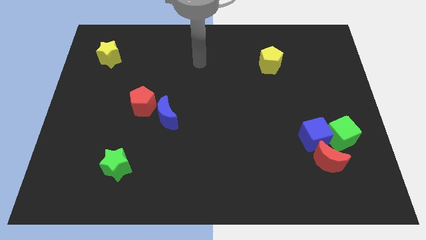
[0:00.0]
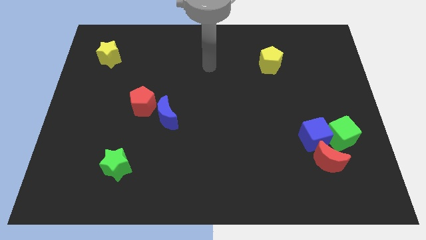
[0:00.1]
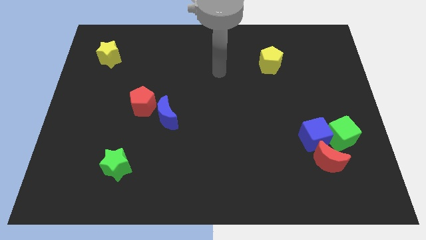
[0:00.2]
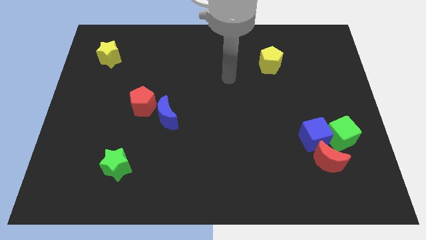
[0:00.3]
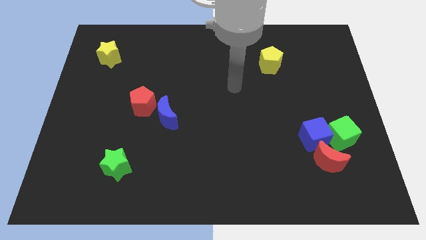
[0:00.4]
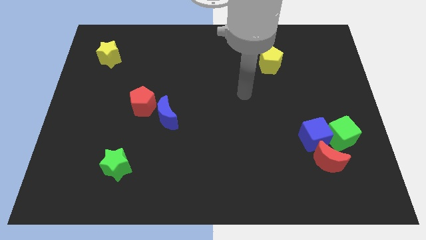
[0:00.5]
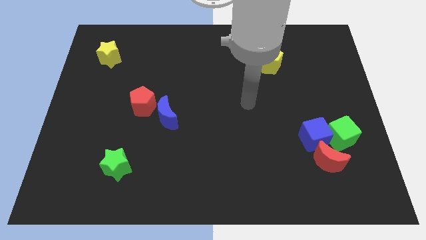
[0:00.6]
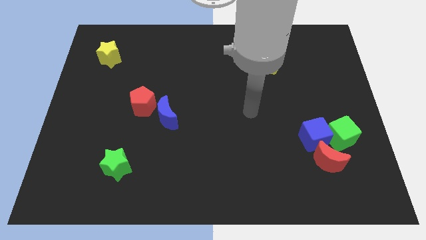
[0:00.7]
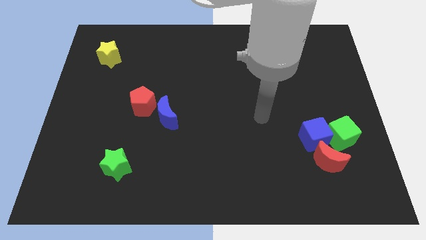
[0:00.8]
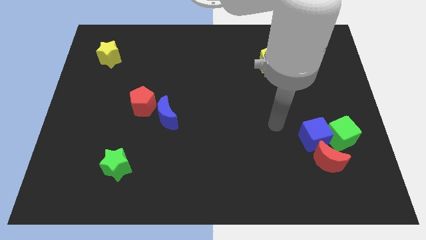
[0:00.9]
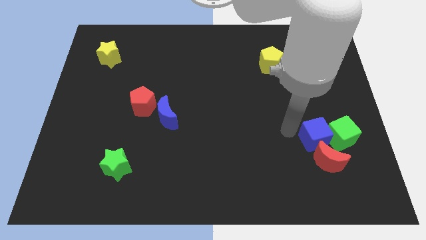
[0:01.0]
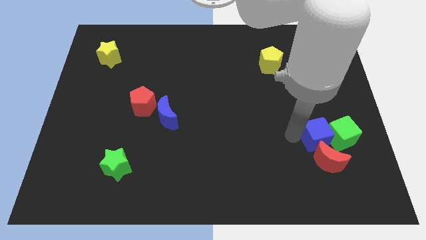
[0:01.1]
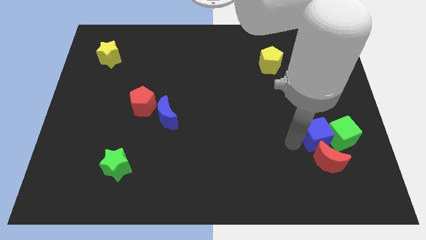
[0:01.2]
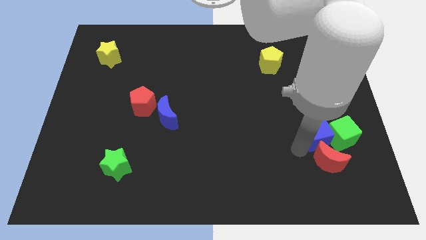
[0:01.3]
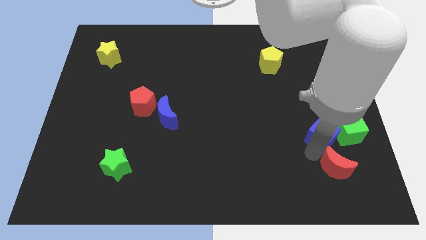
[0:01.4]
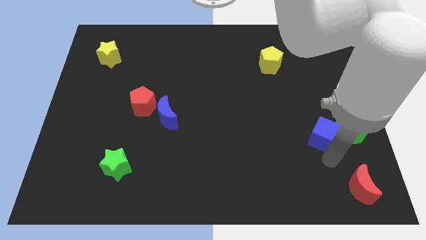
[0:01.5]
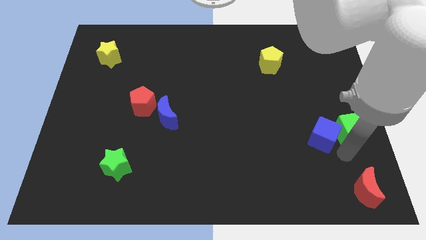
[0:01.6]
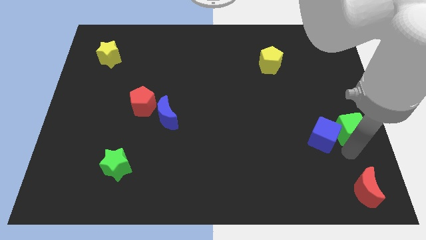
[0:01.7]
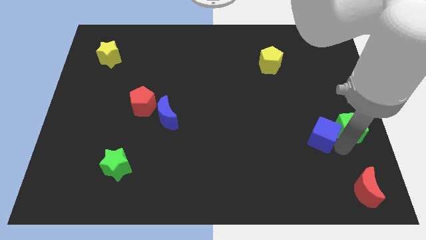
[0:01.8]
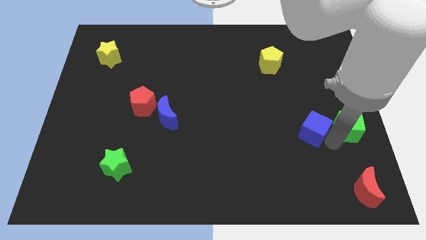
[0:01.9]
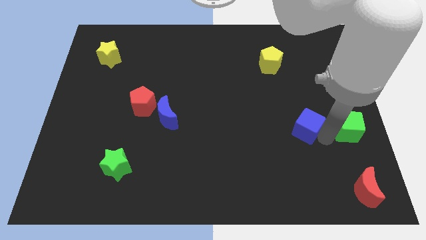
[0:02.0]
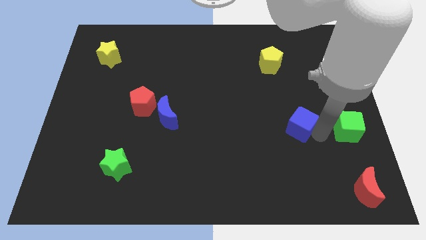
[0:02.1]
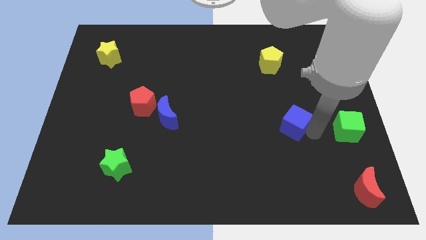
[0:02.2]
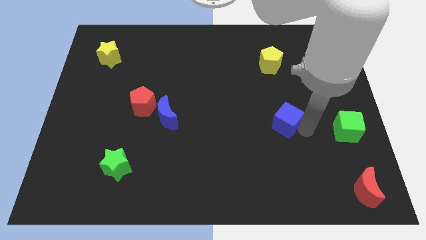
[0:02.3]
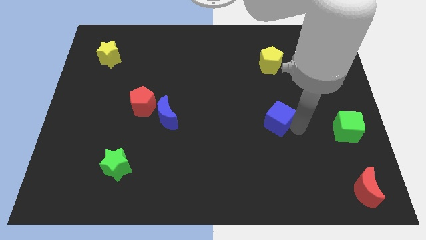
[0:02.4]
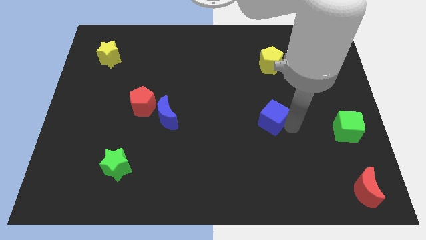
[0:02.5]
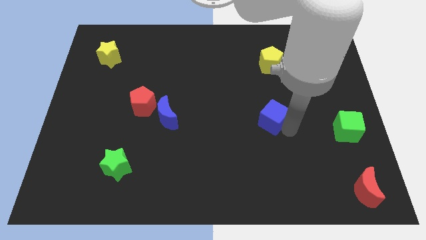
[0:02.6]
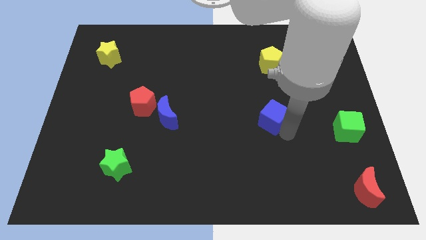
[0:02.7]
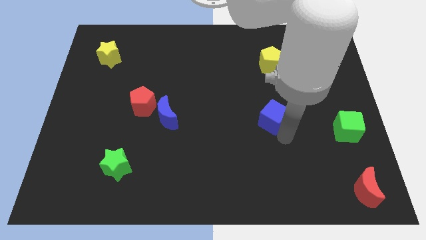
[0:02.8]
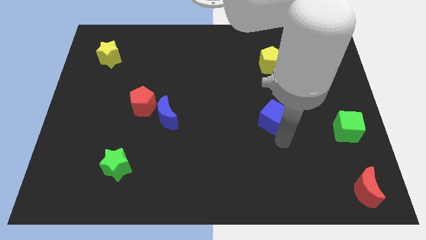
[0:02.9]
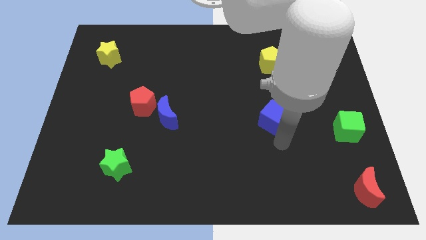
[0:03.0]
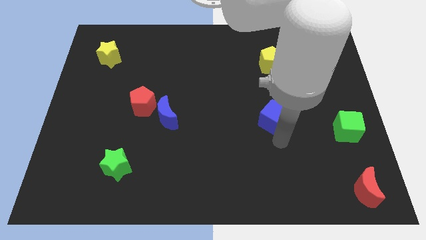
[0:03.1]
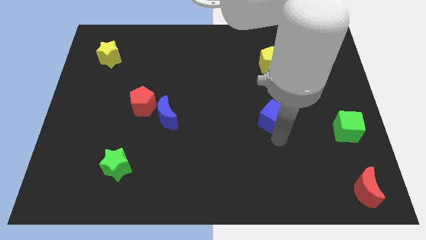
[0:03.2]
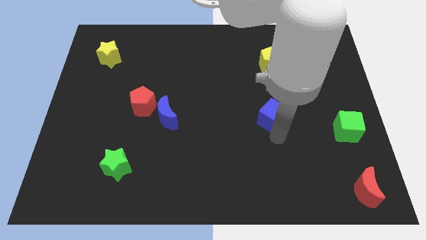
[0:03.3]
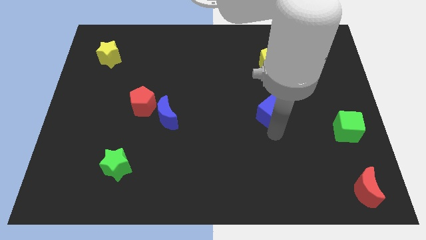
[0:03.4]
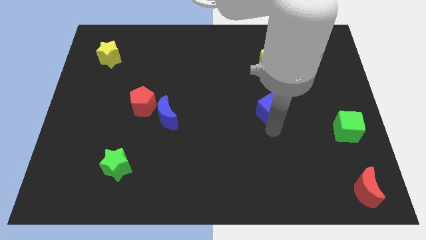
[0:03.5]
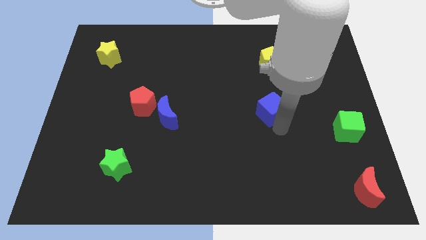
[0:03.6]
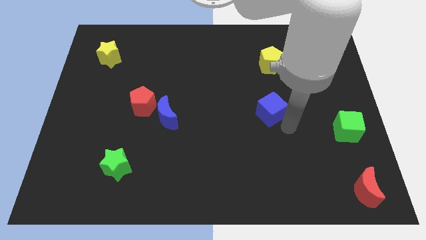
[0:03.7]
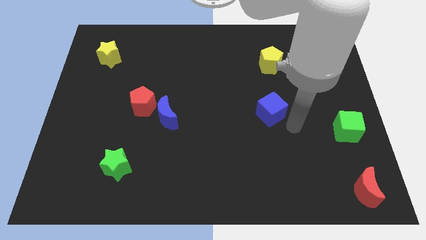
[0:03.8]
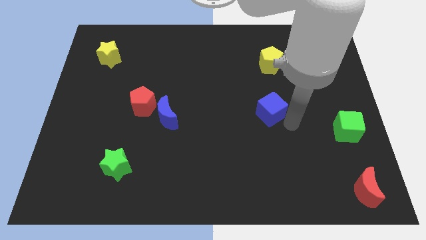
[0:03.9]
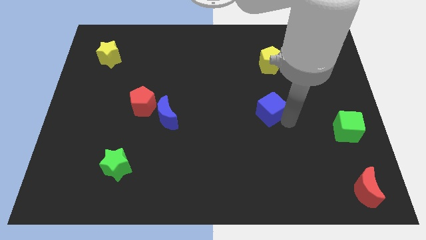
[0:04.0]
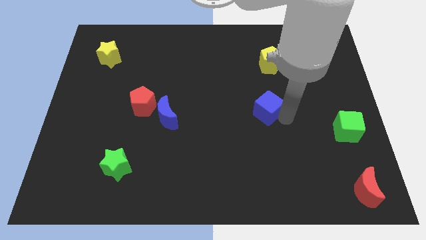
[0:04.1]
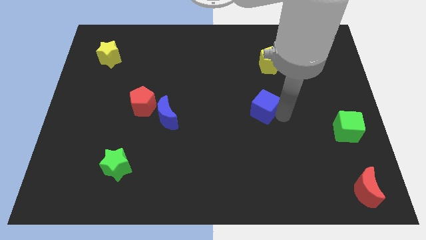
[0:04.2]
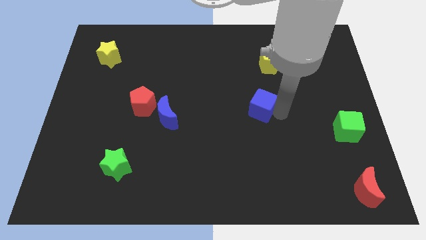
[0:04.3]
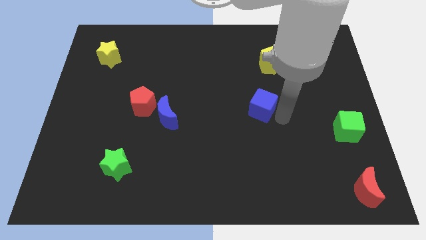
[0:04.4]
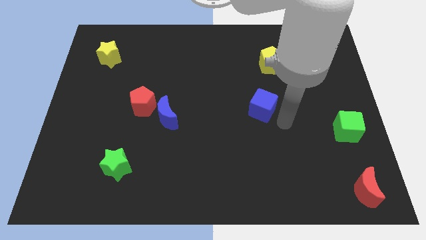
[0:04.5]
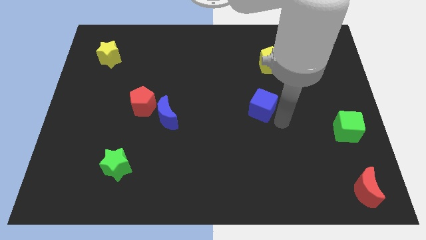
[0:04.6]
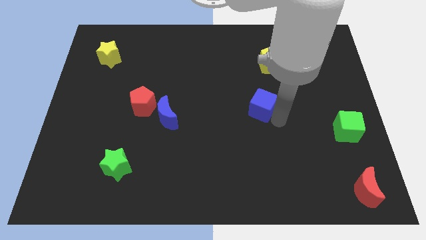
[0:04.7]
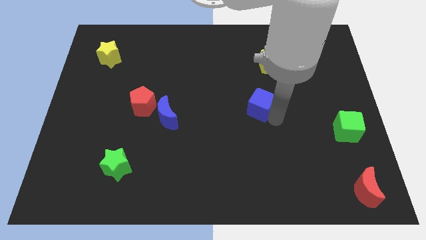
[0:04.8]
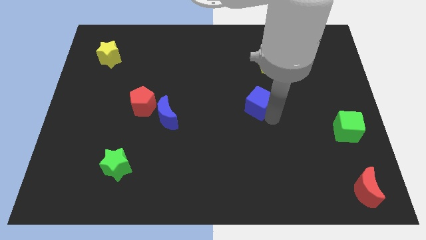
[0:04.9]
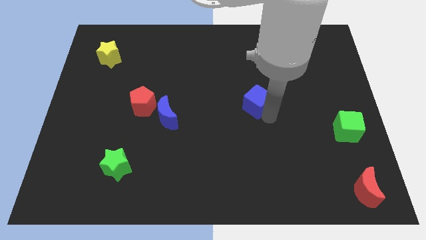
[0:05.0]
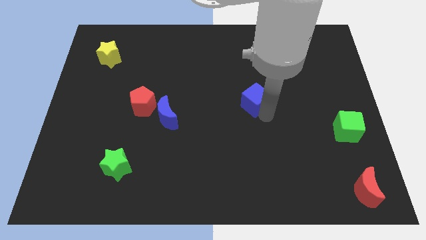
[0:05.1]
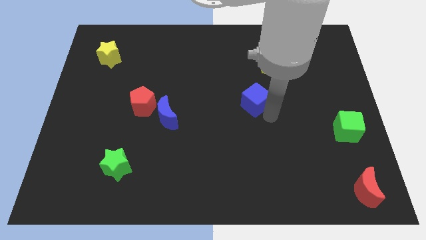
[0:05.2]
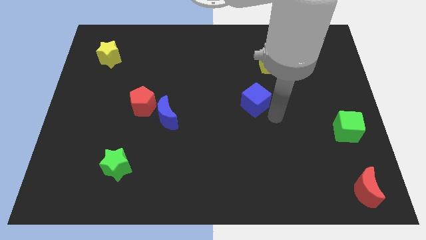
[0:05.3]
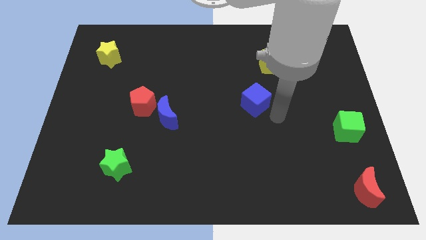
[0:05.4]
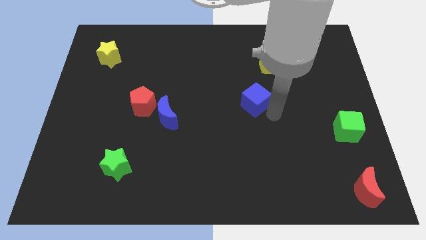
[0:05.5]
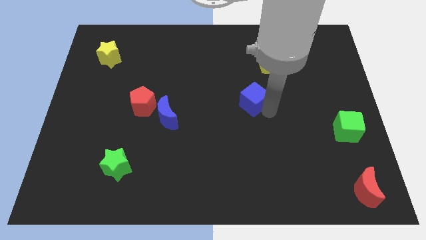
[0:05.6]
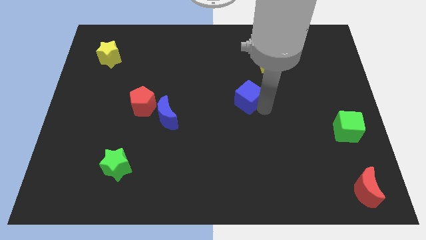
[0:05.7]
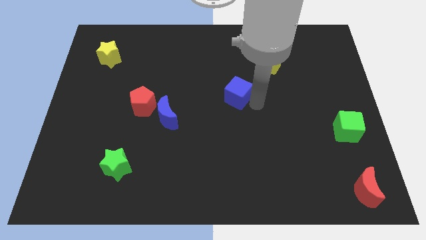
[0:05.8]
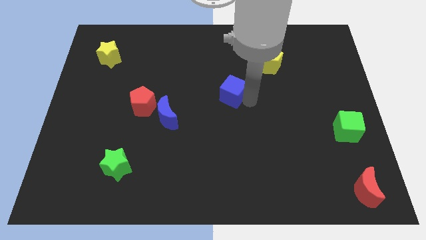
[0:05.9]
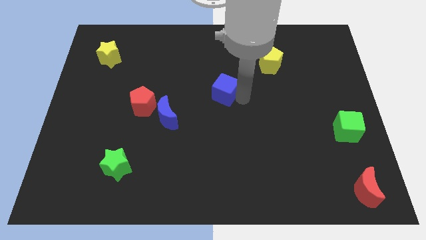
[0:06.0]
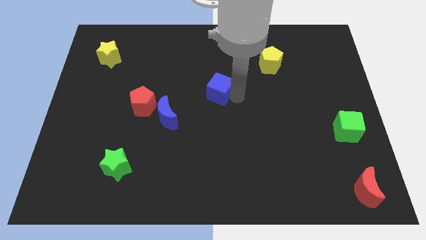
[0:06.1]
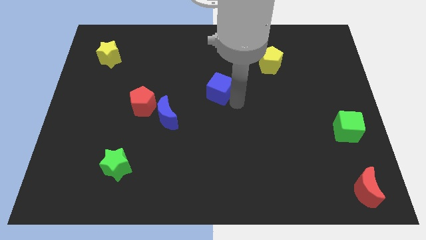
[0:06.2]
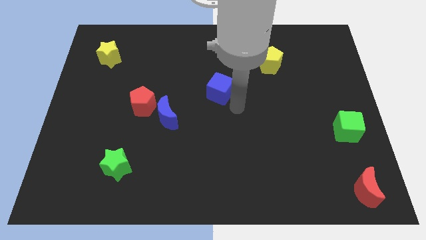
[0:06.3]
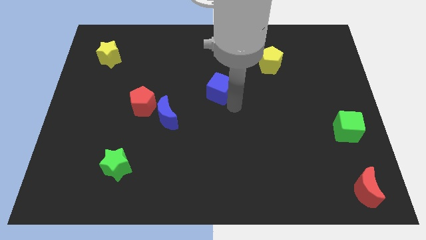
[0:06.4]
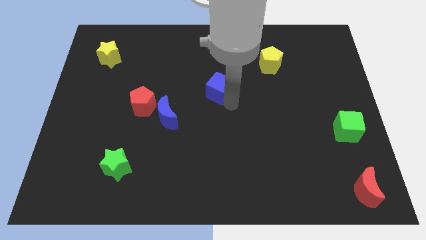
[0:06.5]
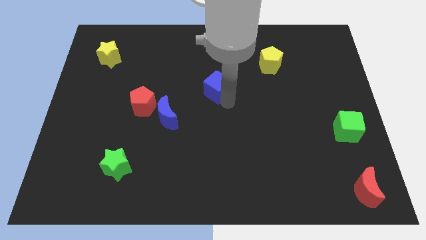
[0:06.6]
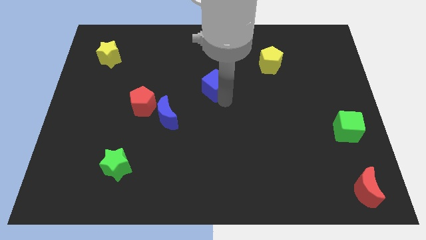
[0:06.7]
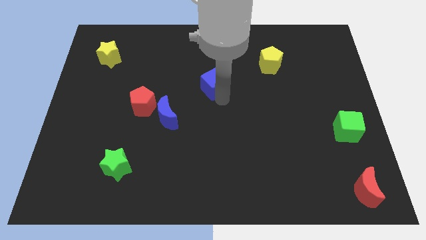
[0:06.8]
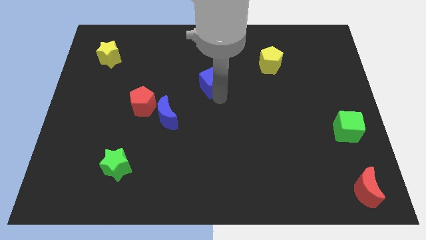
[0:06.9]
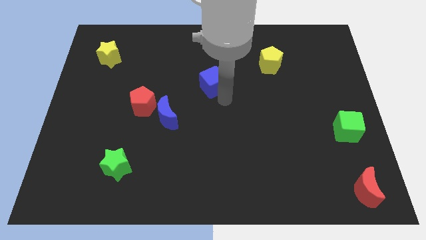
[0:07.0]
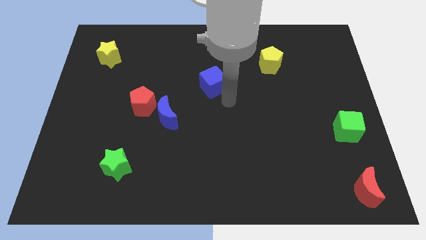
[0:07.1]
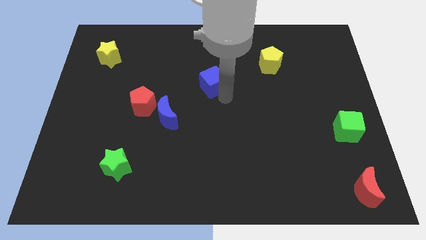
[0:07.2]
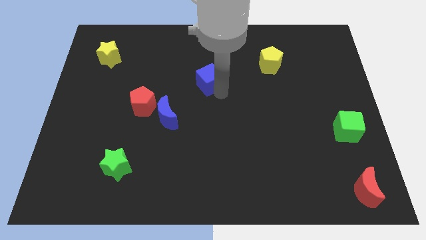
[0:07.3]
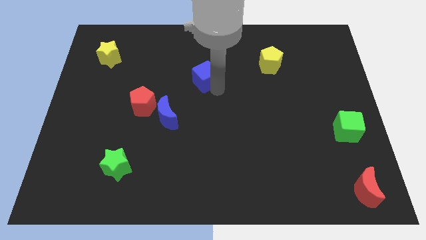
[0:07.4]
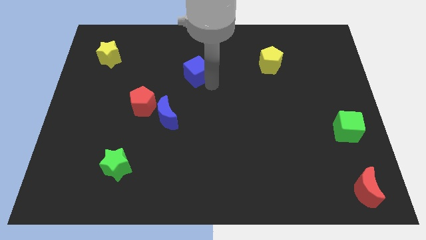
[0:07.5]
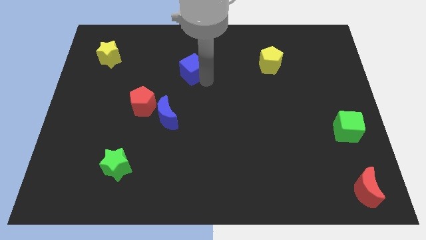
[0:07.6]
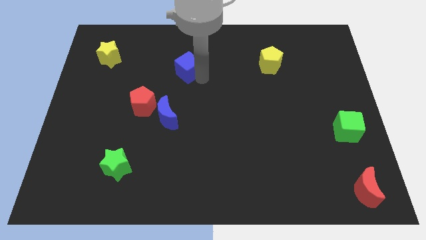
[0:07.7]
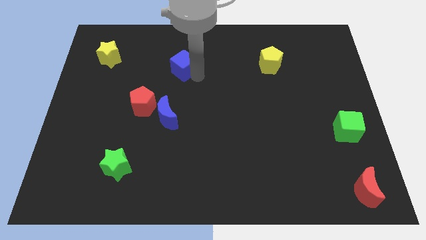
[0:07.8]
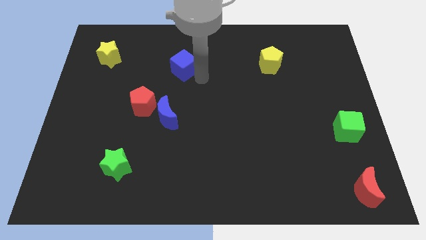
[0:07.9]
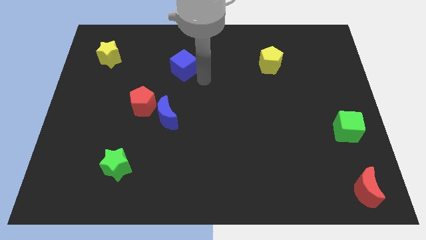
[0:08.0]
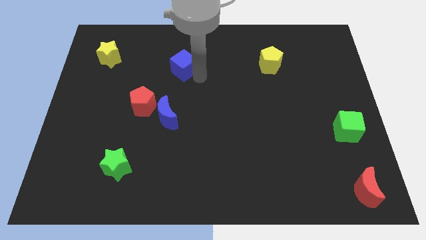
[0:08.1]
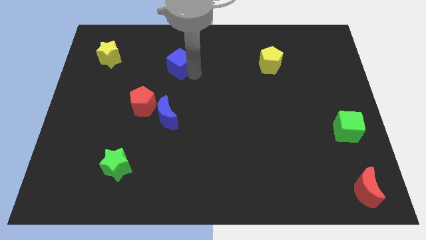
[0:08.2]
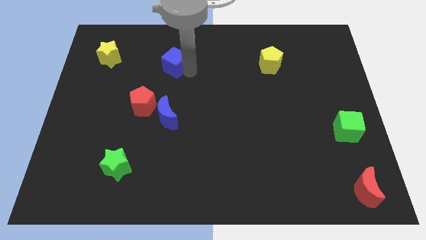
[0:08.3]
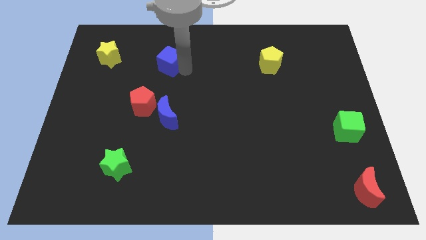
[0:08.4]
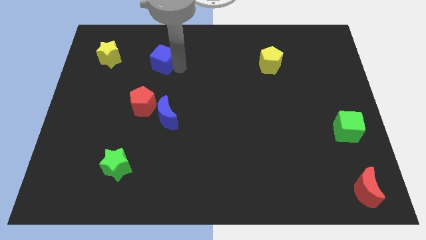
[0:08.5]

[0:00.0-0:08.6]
move the blue cube to the right side of the yellow star
